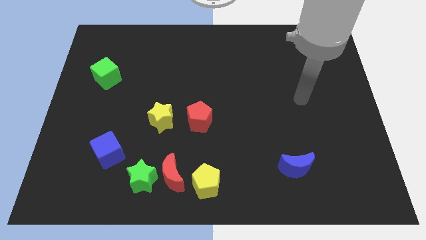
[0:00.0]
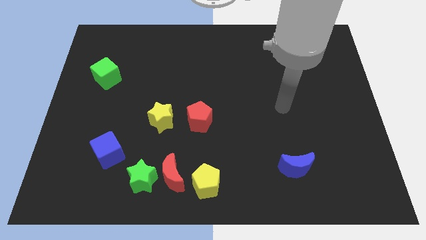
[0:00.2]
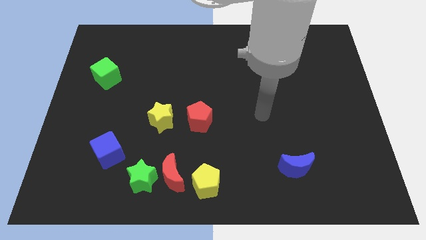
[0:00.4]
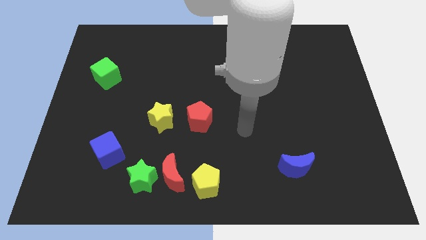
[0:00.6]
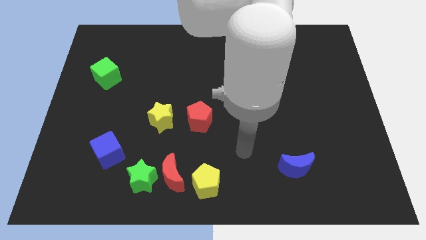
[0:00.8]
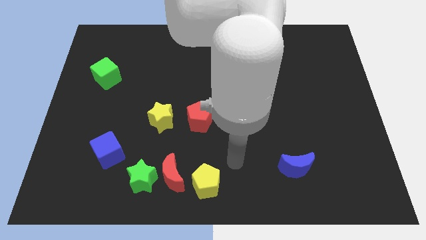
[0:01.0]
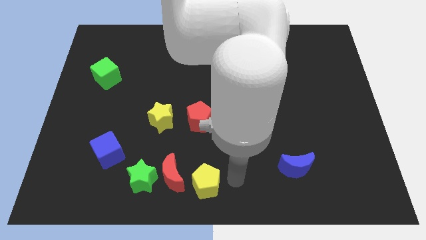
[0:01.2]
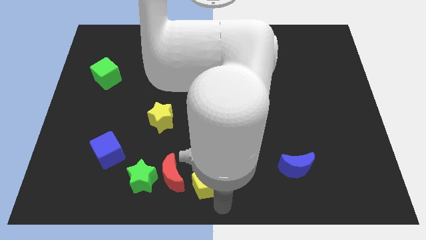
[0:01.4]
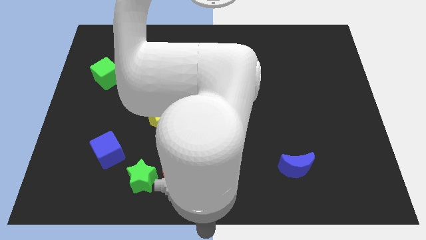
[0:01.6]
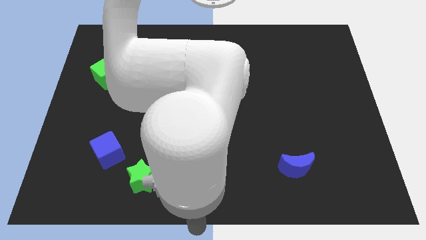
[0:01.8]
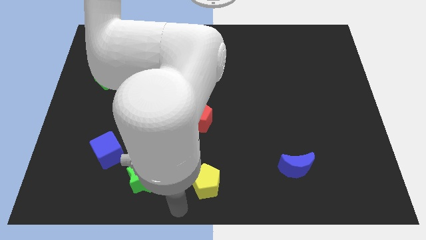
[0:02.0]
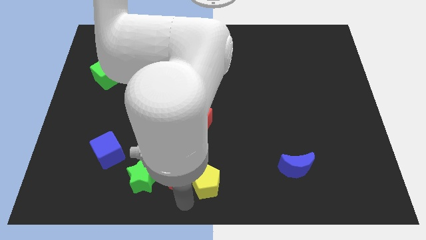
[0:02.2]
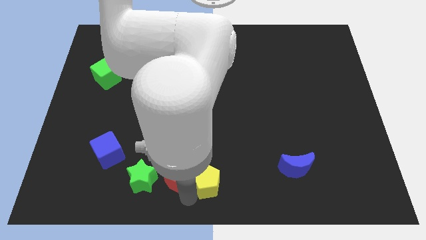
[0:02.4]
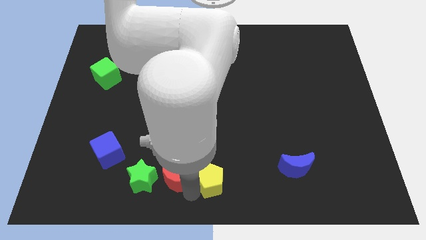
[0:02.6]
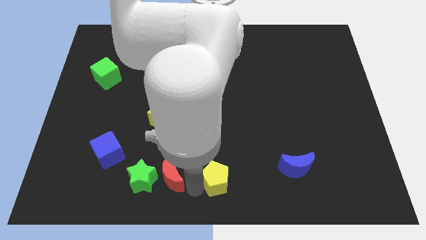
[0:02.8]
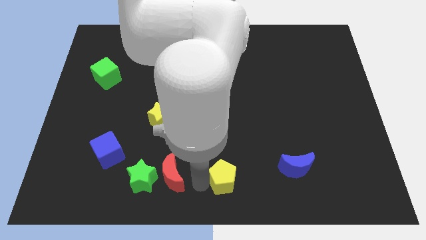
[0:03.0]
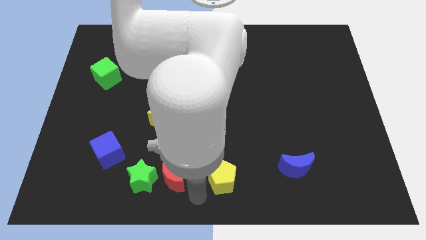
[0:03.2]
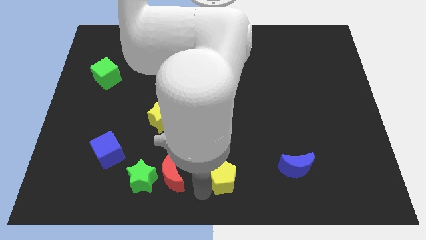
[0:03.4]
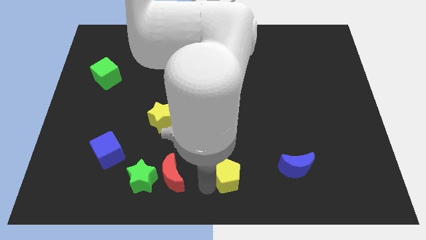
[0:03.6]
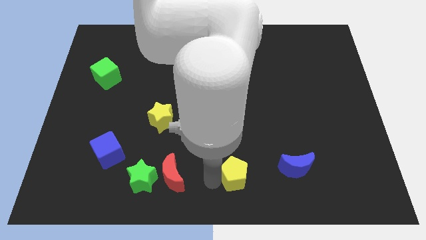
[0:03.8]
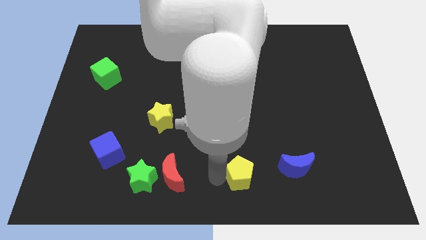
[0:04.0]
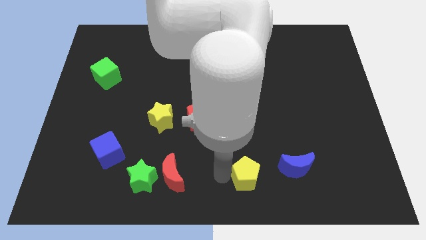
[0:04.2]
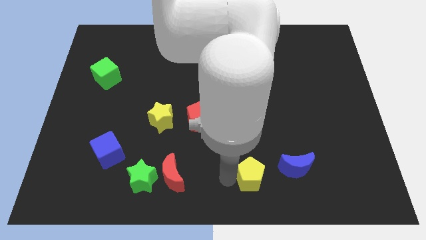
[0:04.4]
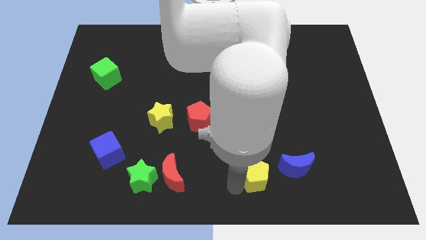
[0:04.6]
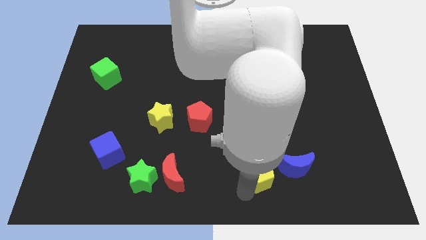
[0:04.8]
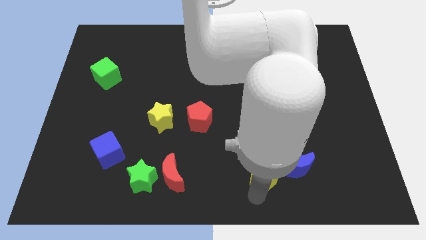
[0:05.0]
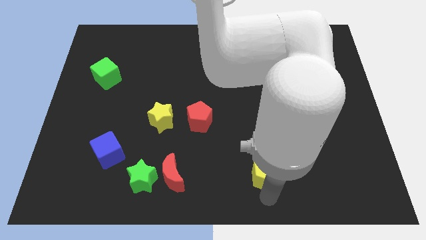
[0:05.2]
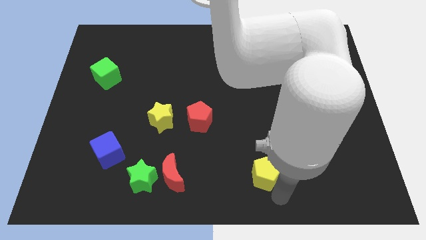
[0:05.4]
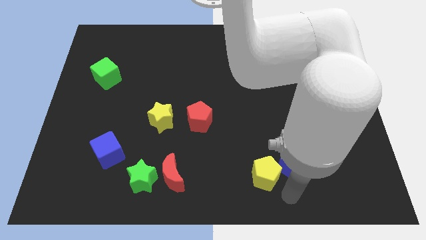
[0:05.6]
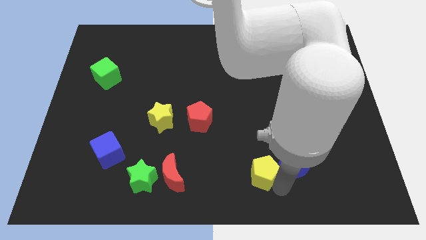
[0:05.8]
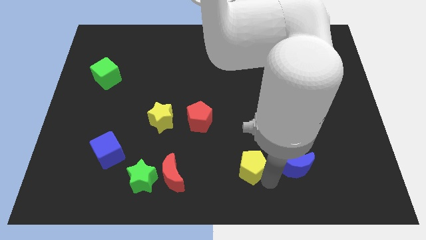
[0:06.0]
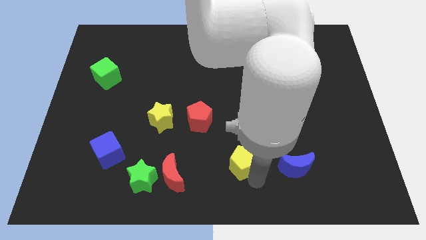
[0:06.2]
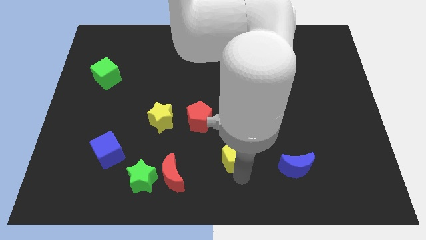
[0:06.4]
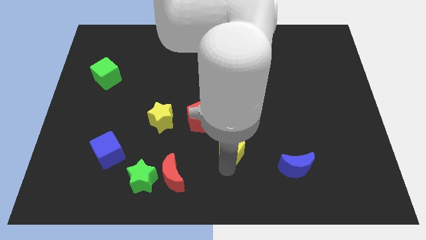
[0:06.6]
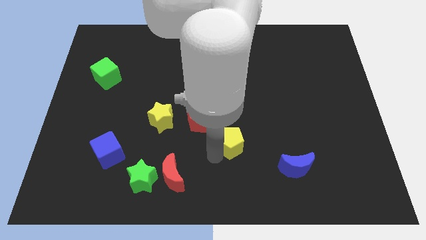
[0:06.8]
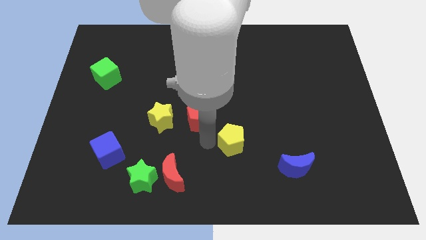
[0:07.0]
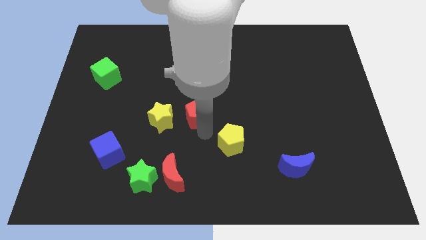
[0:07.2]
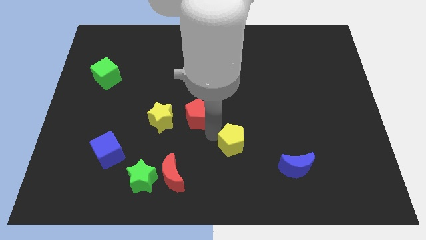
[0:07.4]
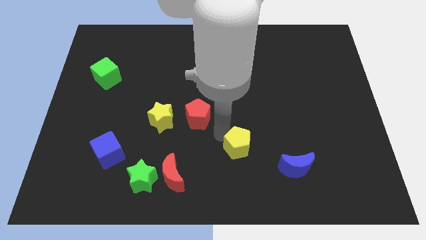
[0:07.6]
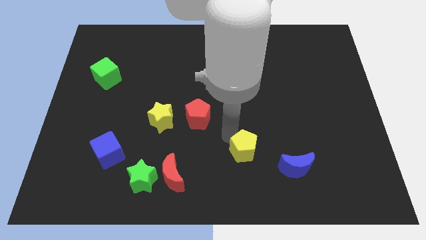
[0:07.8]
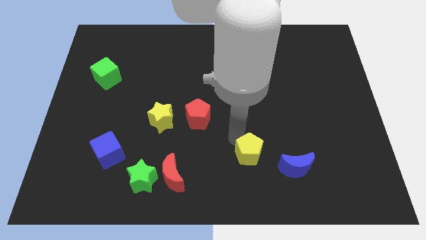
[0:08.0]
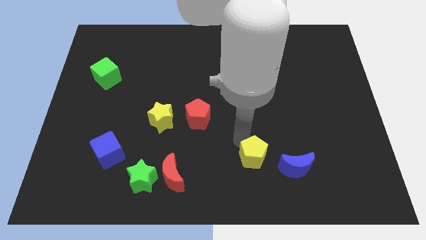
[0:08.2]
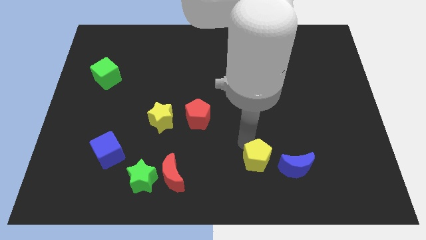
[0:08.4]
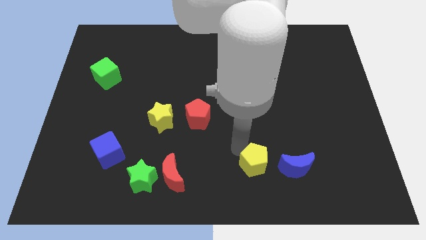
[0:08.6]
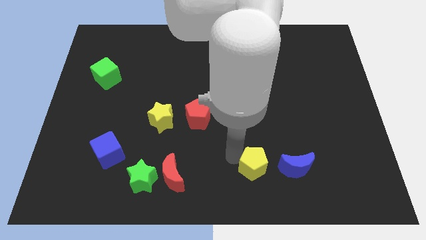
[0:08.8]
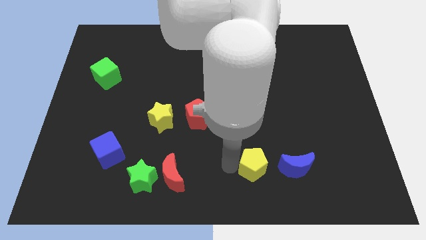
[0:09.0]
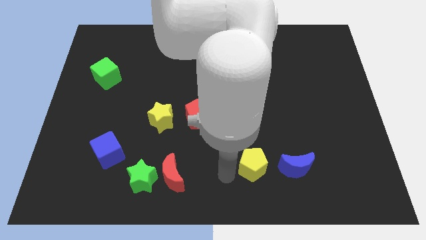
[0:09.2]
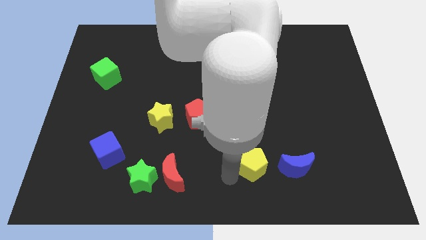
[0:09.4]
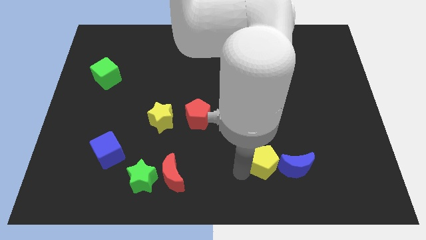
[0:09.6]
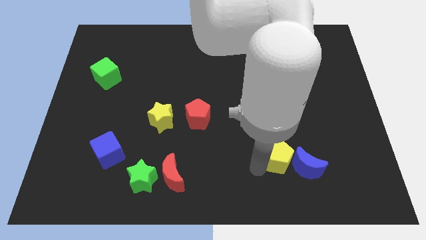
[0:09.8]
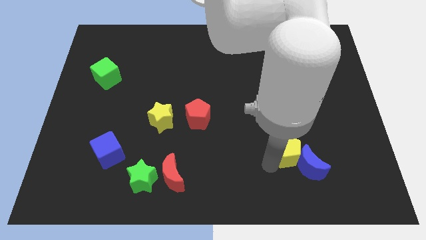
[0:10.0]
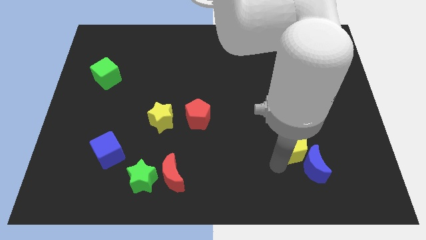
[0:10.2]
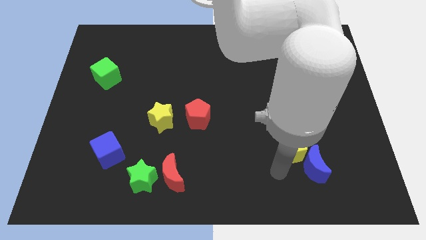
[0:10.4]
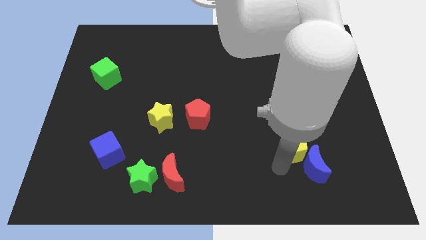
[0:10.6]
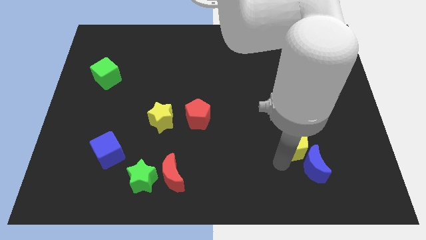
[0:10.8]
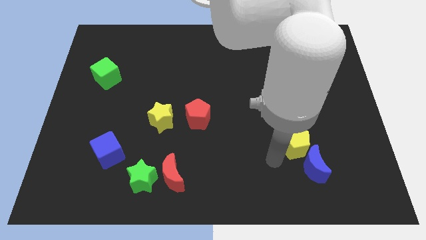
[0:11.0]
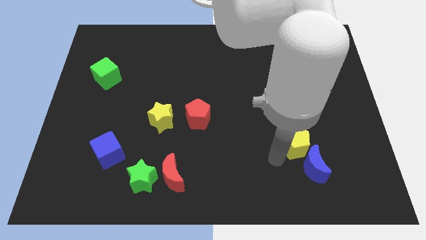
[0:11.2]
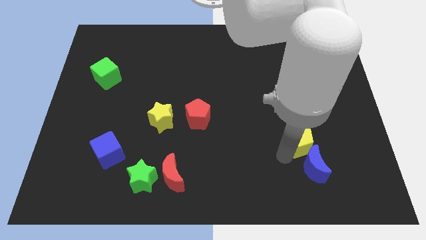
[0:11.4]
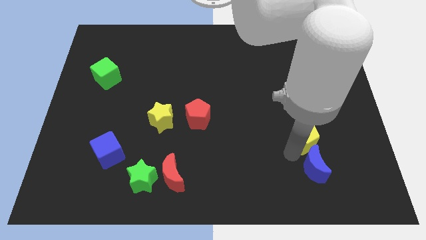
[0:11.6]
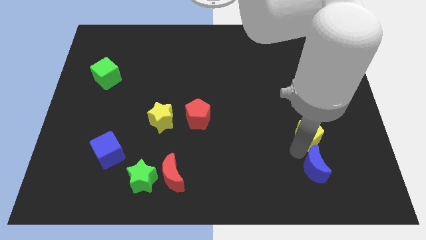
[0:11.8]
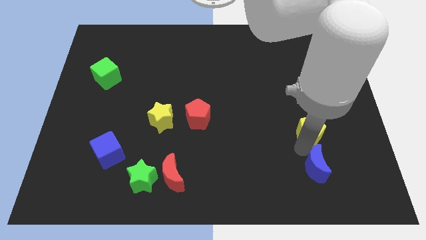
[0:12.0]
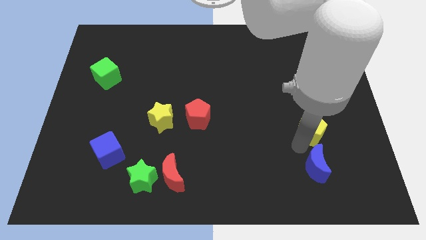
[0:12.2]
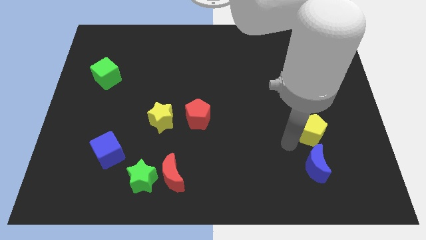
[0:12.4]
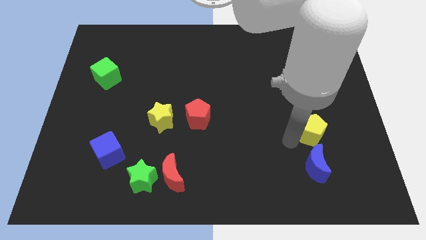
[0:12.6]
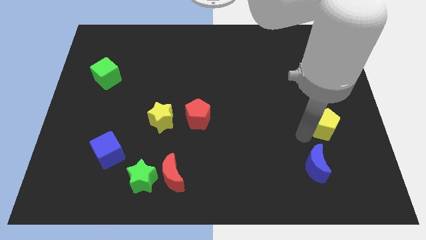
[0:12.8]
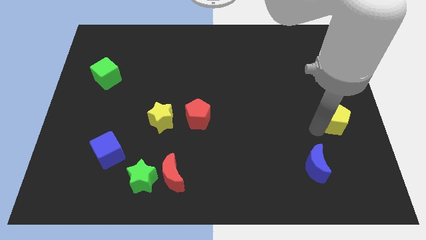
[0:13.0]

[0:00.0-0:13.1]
slide the yellow pentagon to the right side
